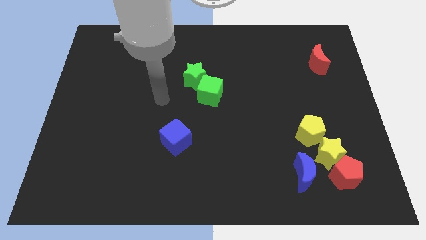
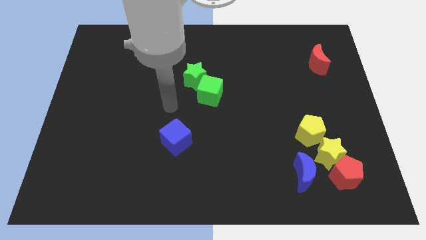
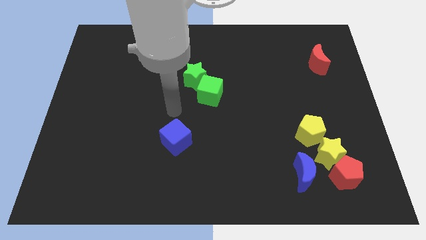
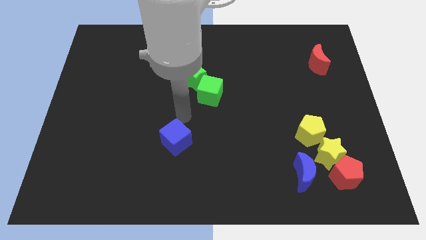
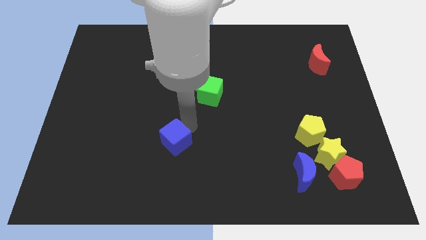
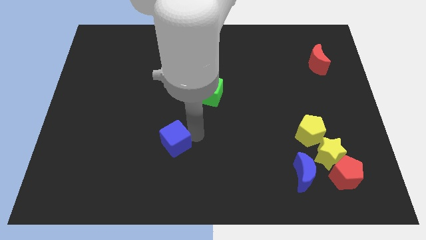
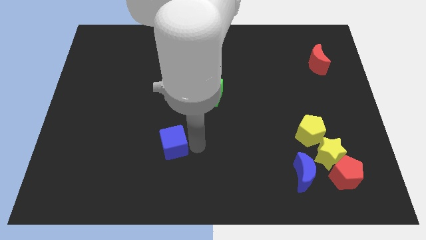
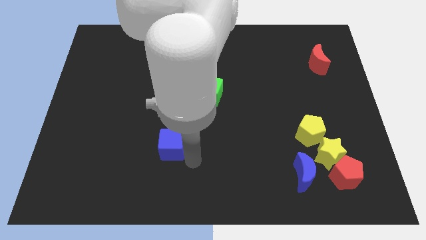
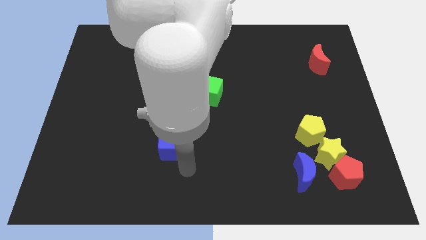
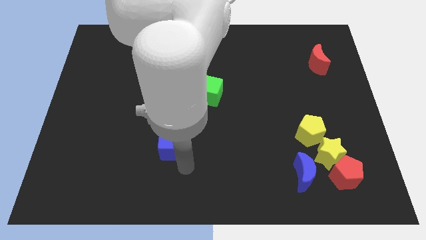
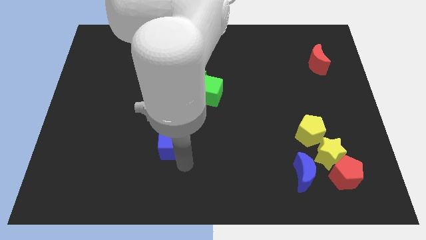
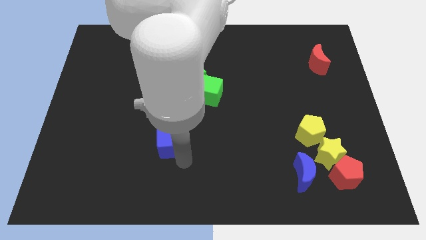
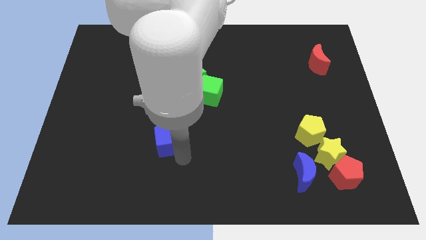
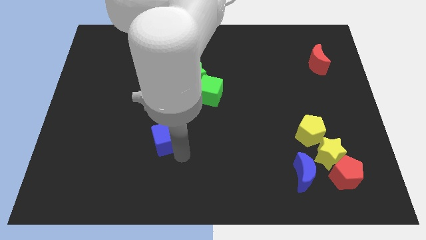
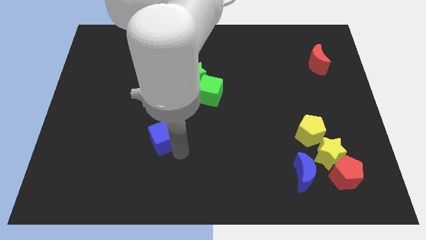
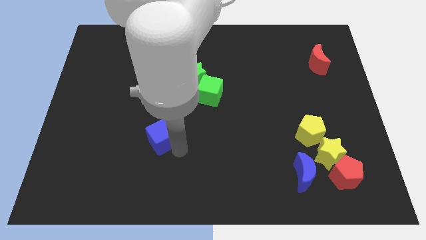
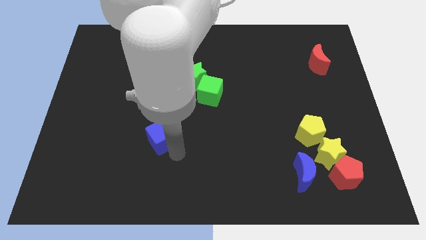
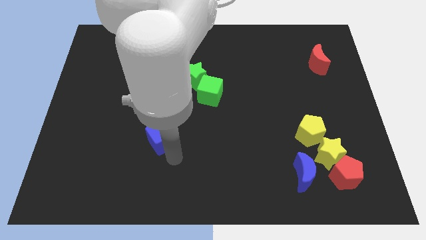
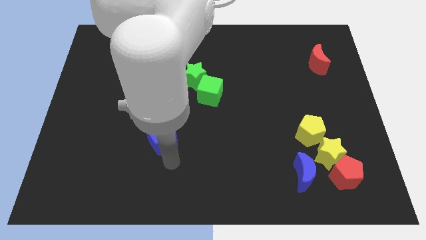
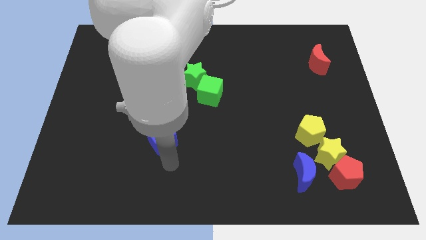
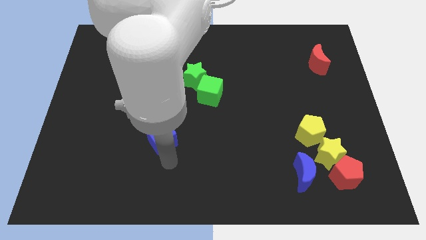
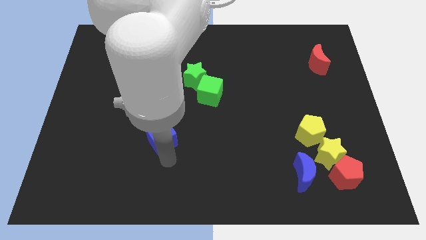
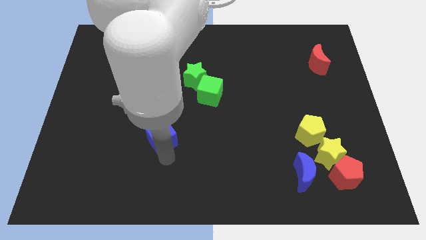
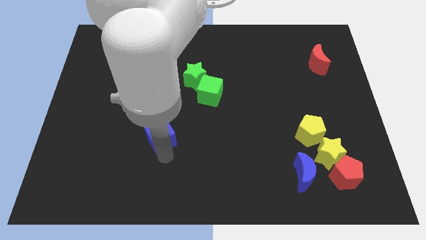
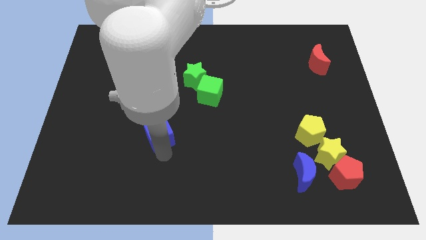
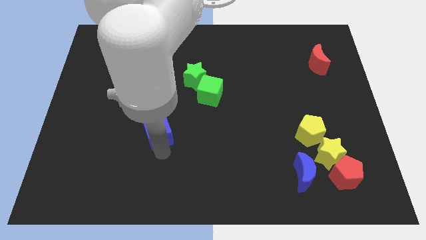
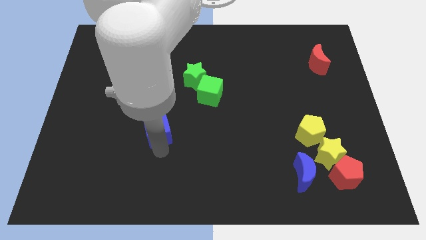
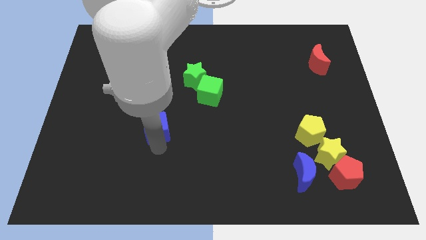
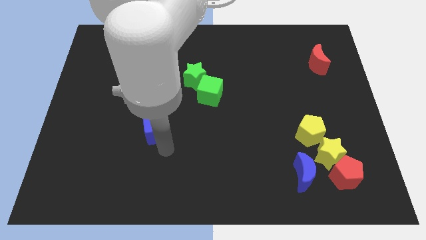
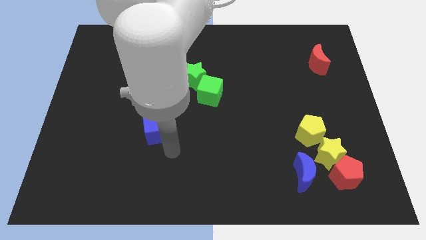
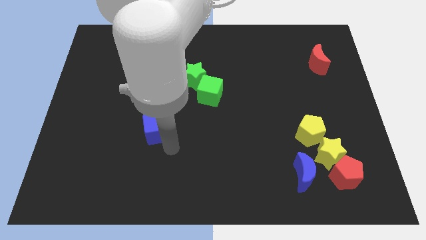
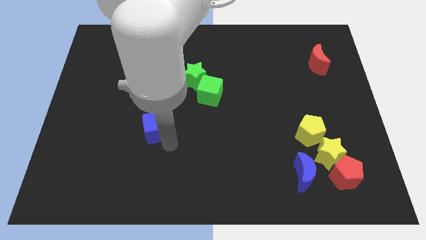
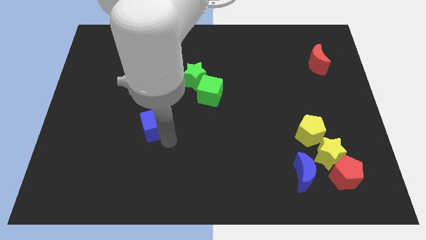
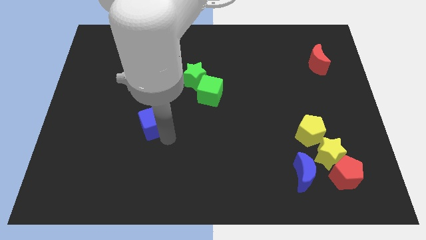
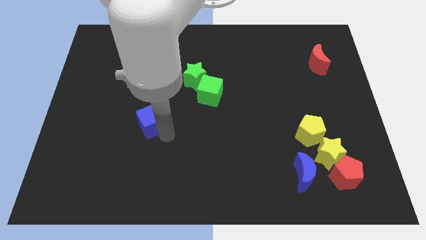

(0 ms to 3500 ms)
move the blue cube up and then to the left a little

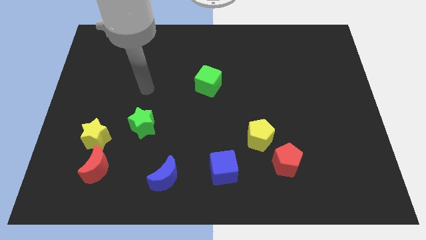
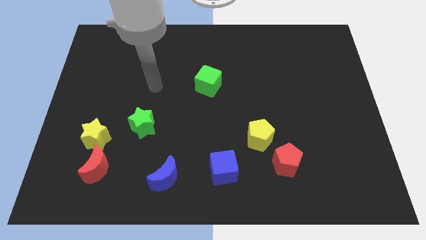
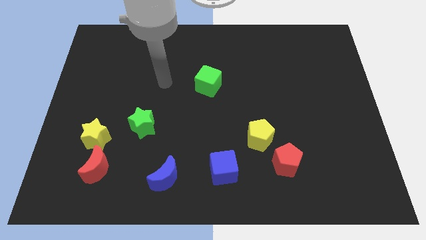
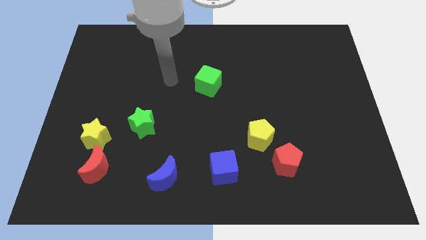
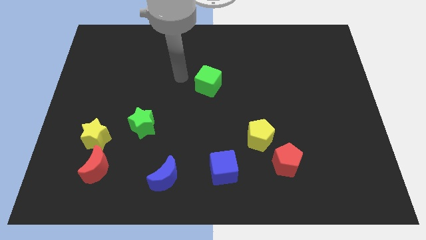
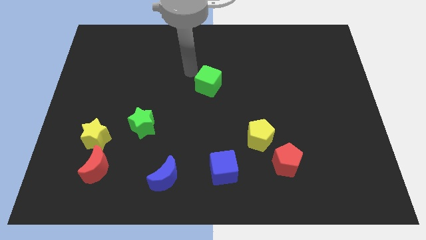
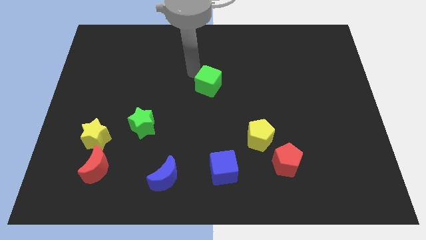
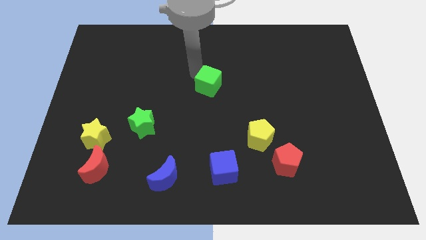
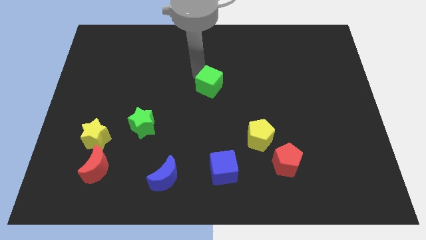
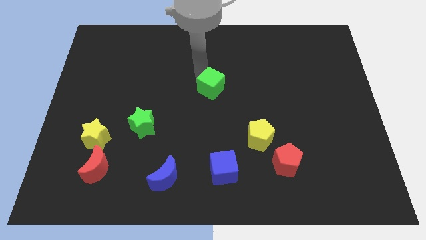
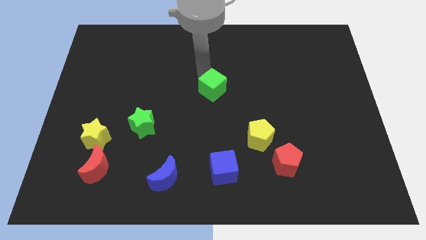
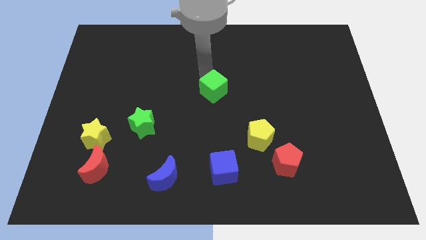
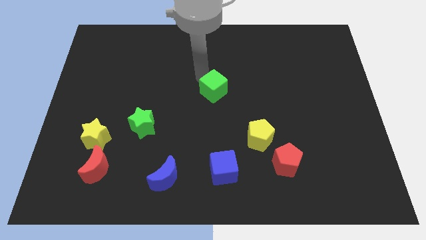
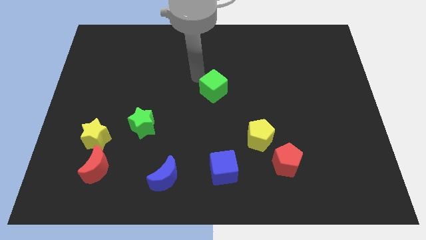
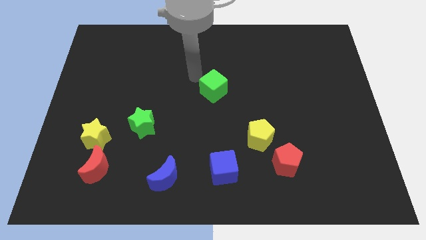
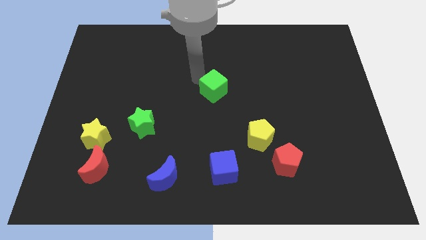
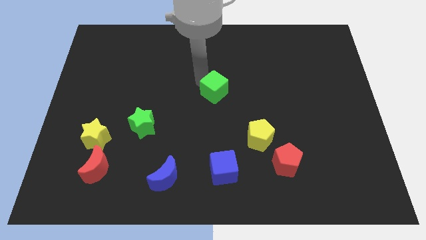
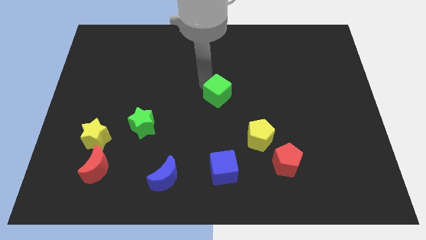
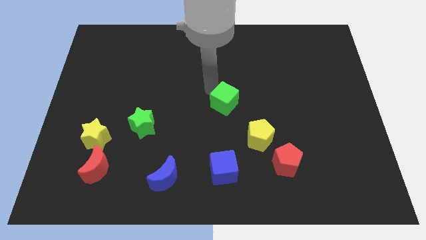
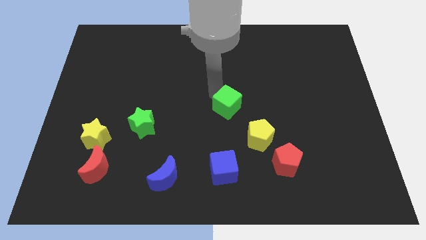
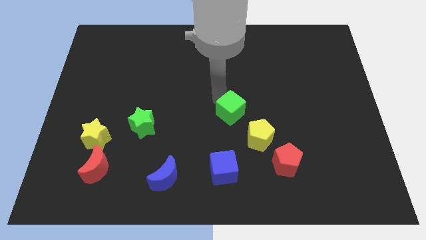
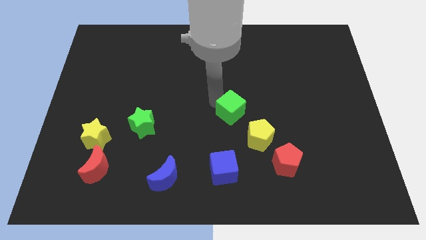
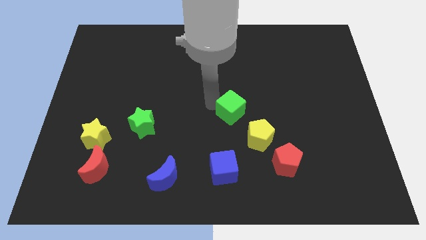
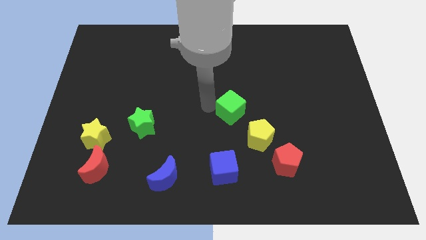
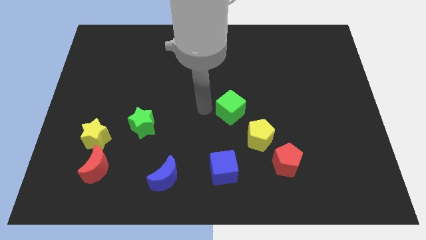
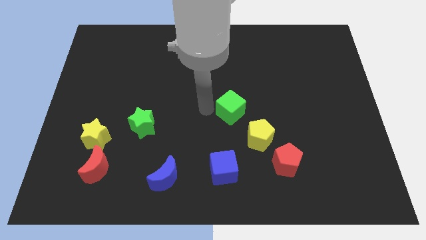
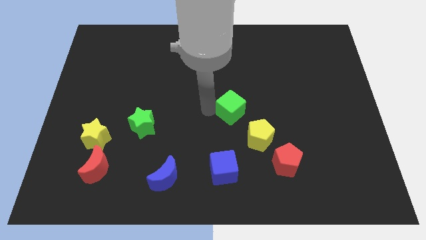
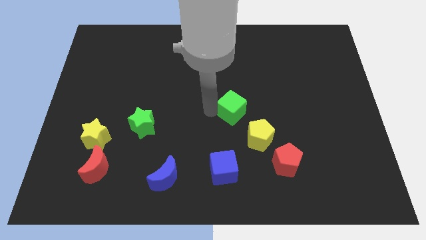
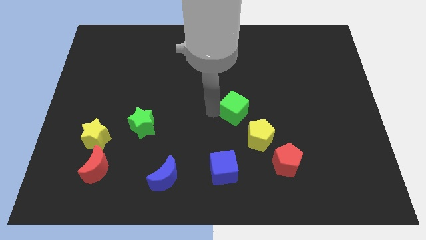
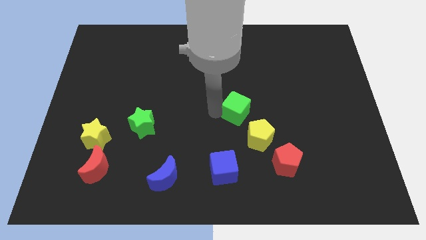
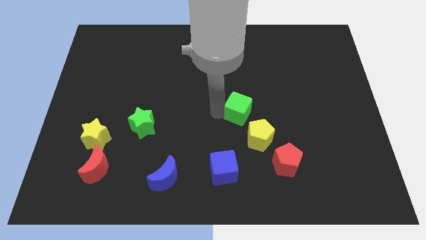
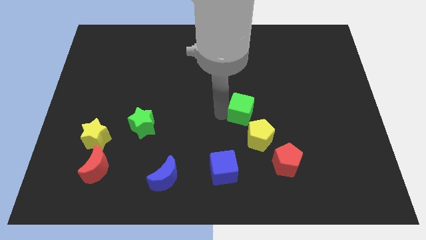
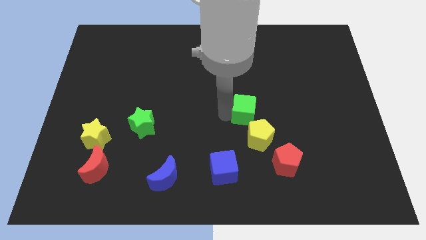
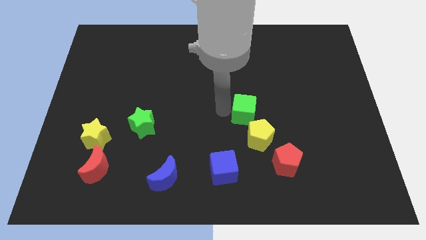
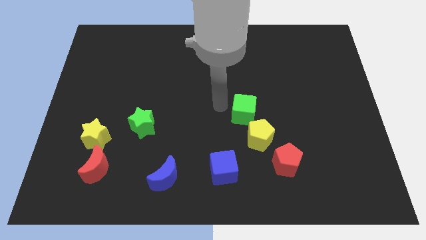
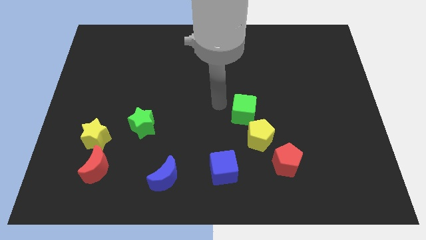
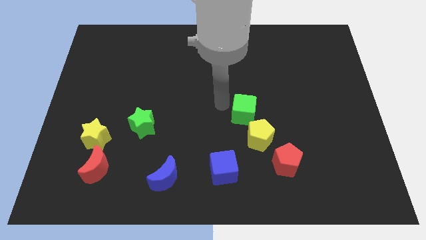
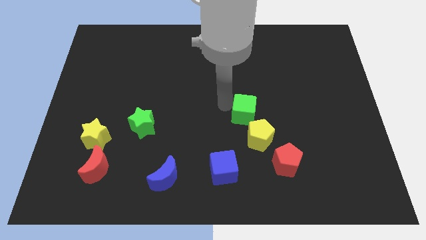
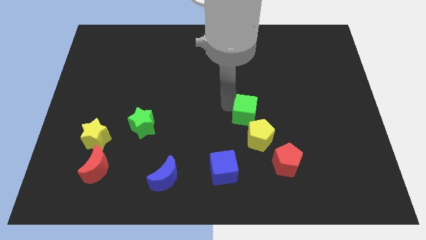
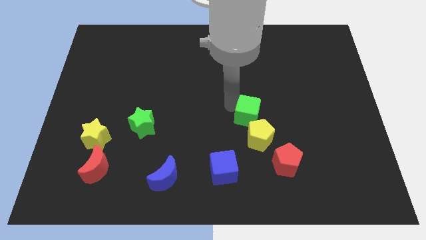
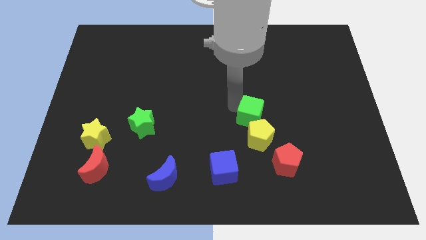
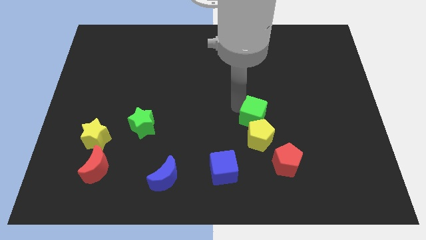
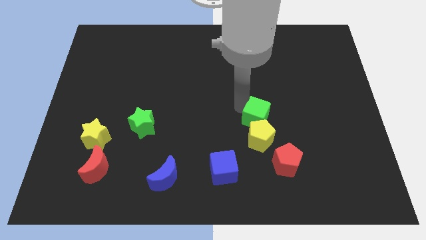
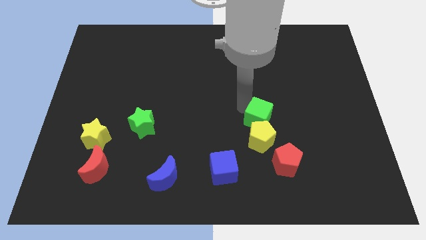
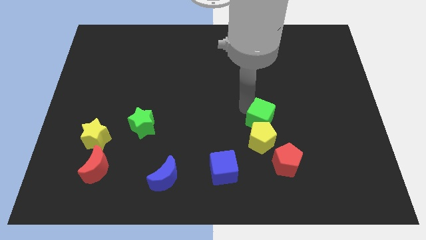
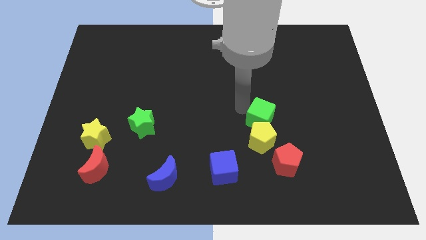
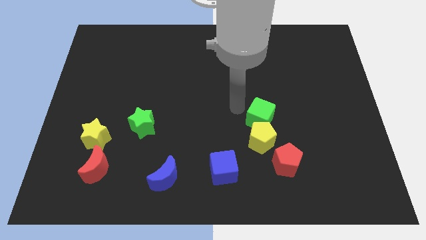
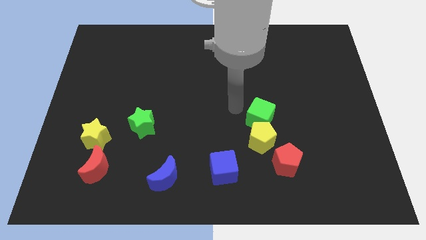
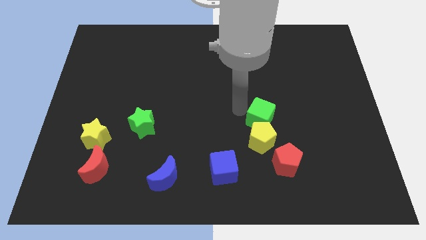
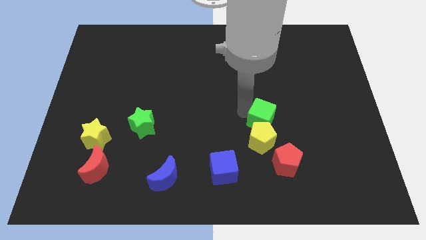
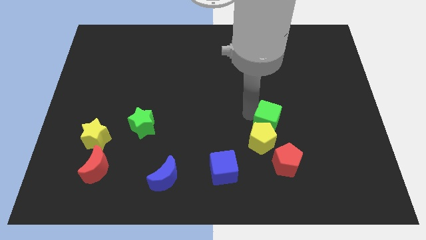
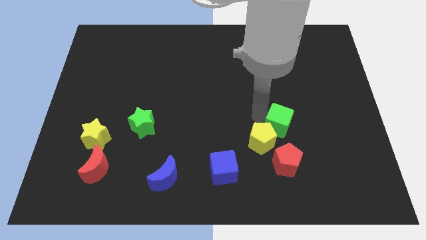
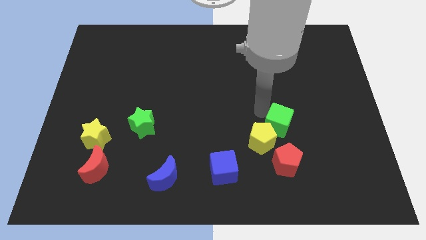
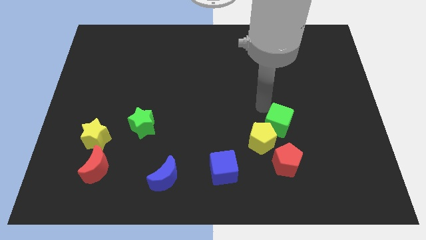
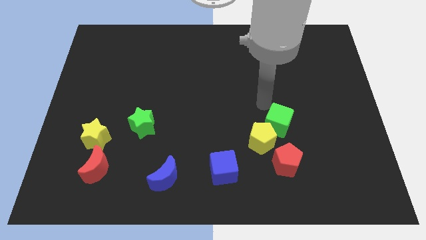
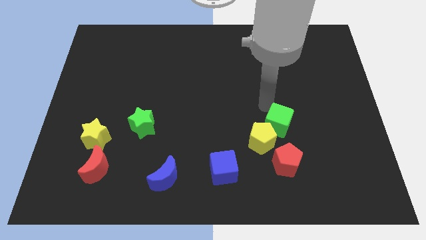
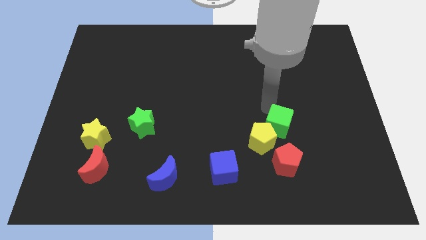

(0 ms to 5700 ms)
push the green cube down and then to the right
